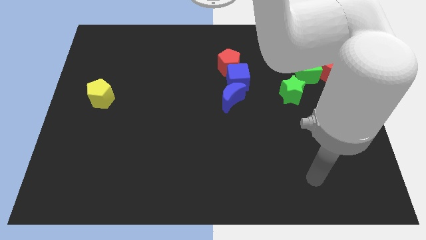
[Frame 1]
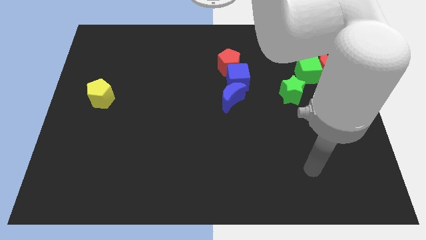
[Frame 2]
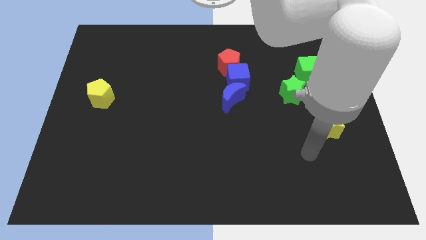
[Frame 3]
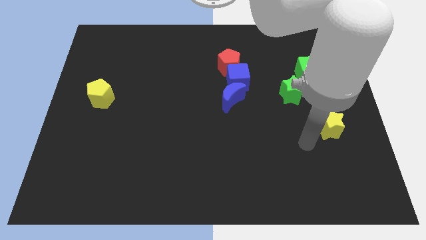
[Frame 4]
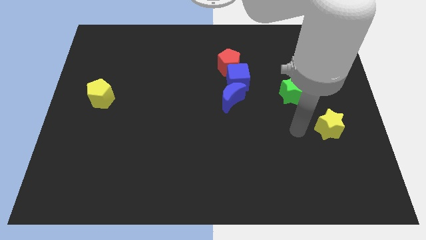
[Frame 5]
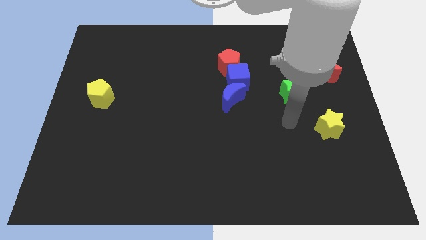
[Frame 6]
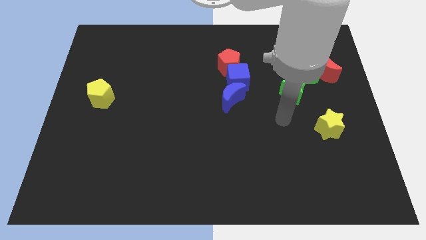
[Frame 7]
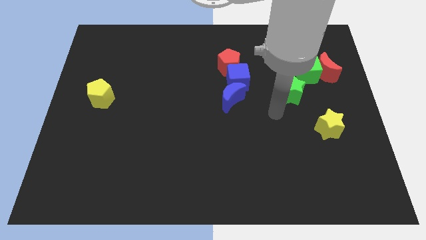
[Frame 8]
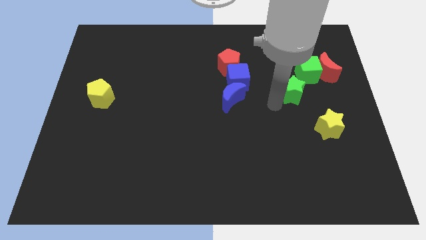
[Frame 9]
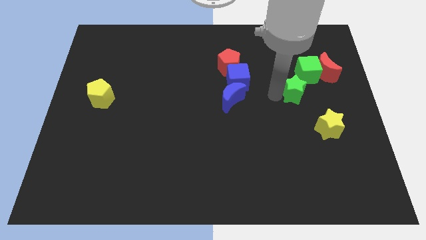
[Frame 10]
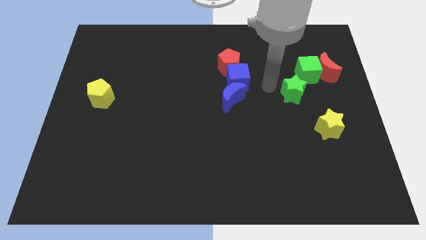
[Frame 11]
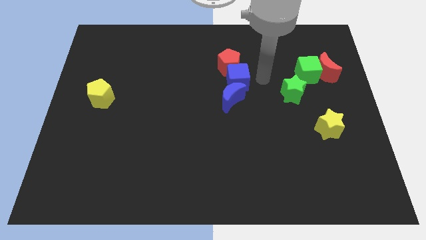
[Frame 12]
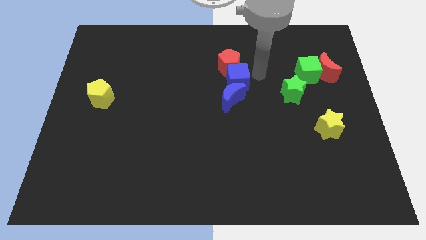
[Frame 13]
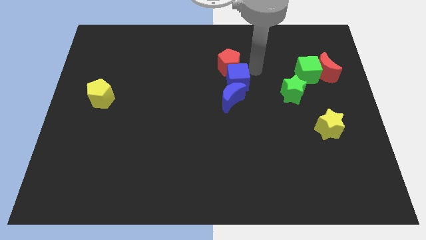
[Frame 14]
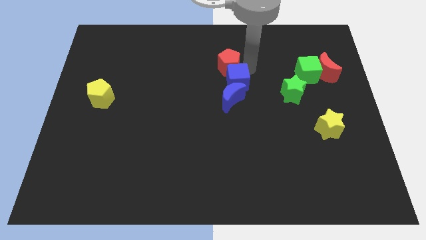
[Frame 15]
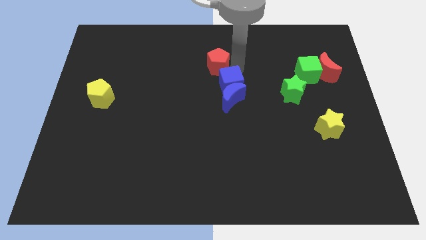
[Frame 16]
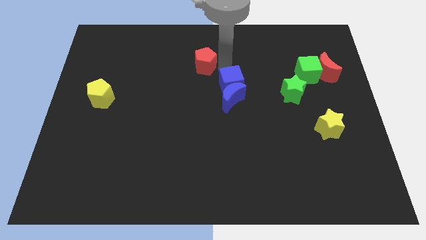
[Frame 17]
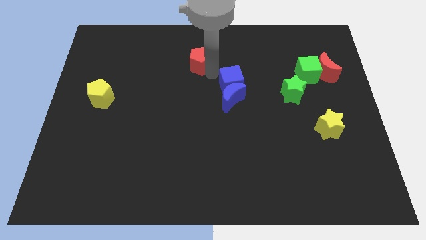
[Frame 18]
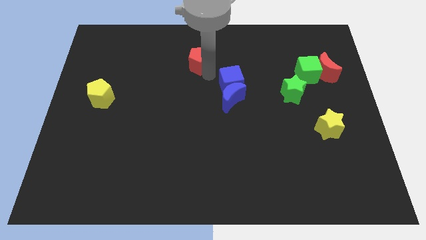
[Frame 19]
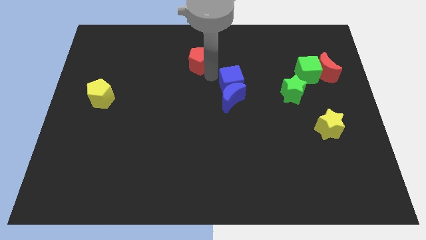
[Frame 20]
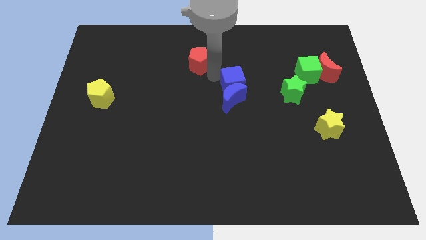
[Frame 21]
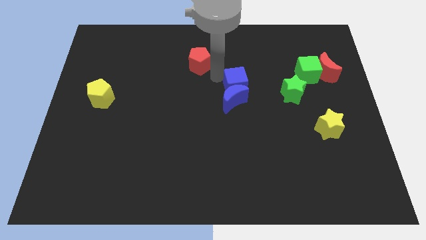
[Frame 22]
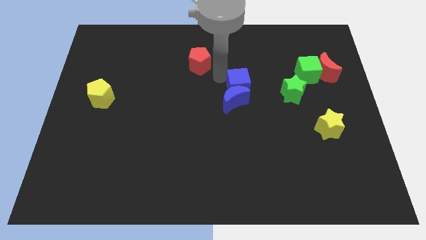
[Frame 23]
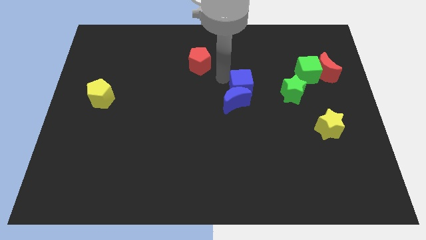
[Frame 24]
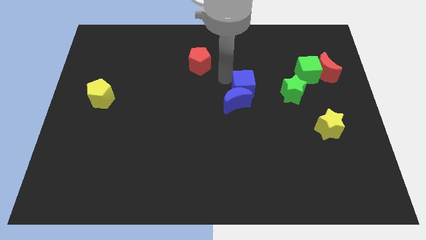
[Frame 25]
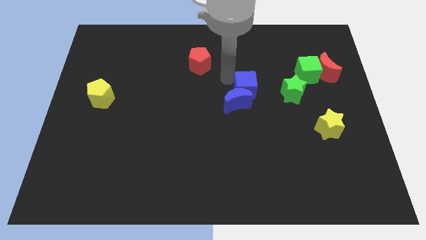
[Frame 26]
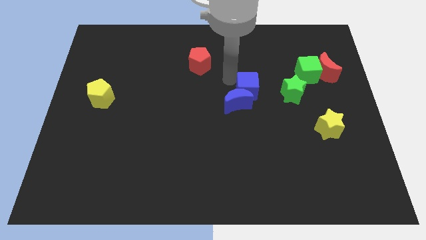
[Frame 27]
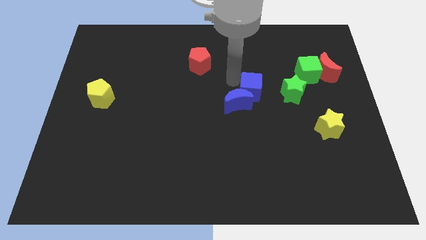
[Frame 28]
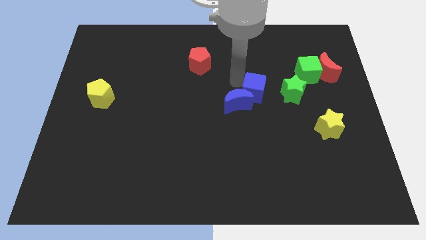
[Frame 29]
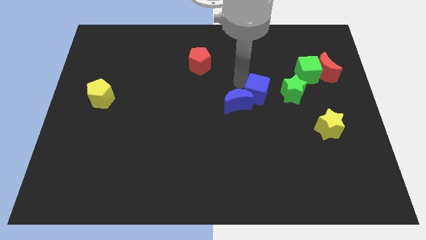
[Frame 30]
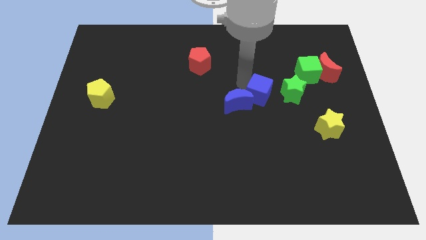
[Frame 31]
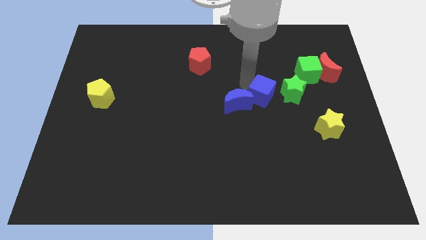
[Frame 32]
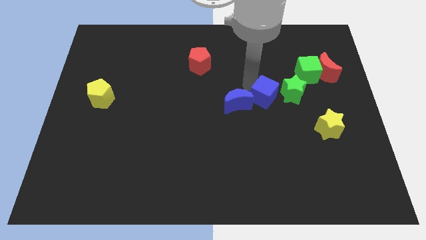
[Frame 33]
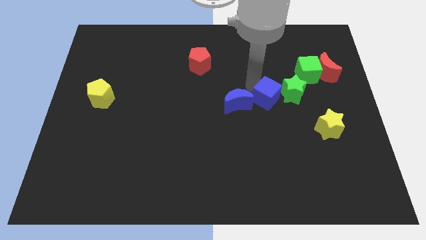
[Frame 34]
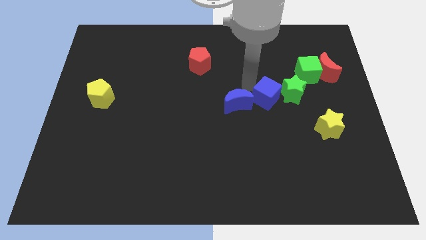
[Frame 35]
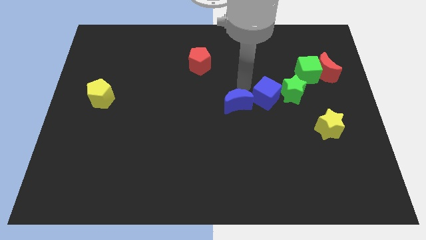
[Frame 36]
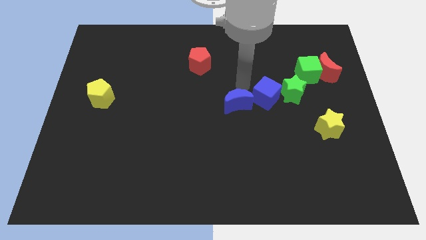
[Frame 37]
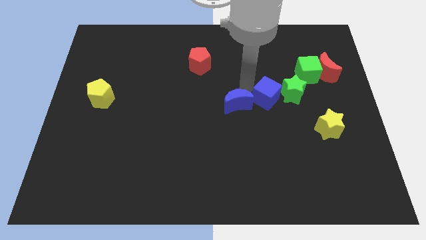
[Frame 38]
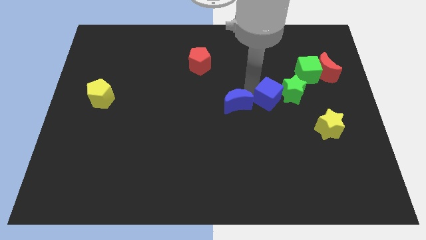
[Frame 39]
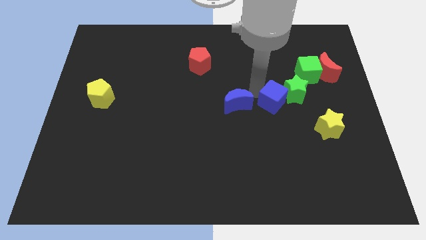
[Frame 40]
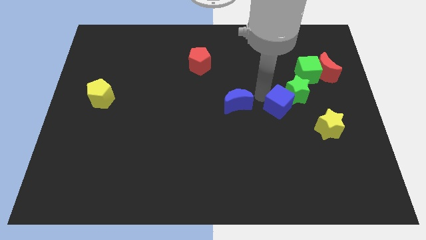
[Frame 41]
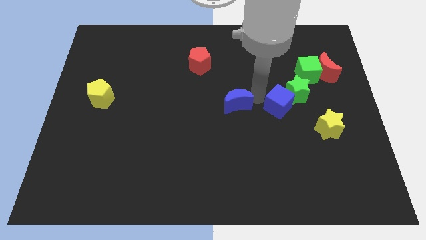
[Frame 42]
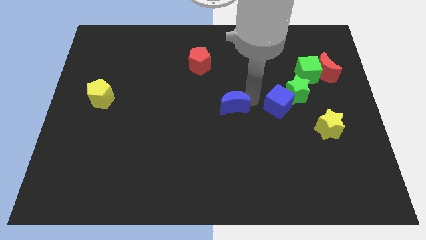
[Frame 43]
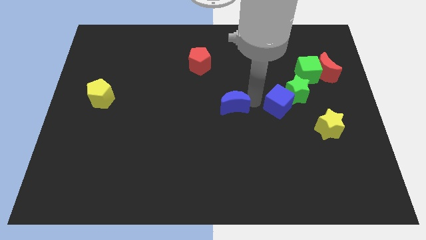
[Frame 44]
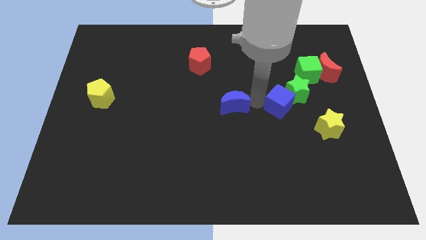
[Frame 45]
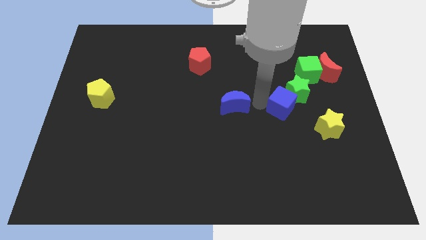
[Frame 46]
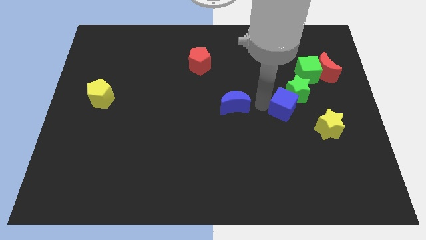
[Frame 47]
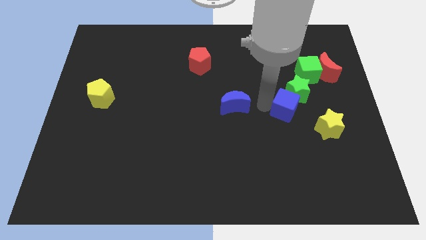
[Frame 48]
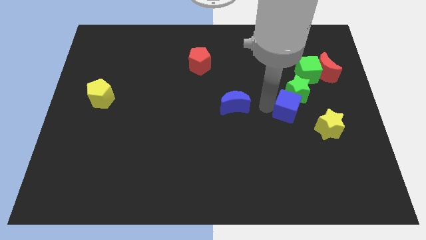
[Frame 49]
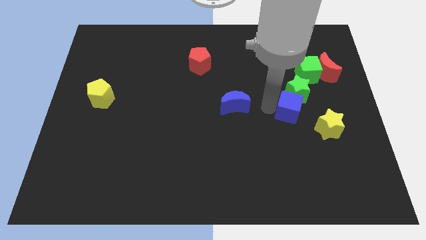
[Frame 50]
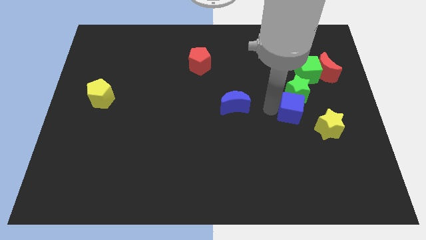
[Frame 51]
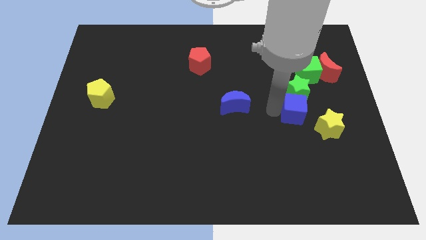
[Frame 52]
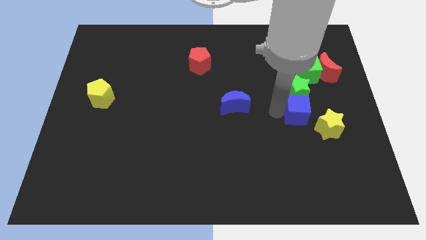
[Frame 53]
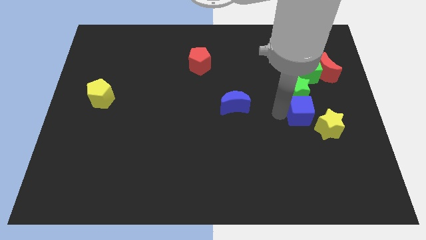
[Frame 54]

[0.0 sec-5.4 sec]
put the blue cube to the bottom right of the green star

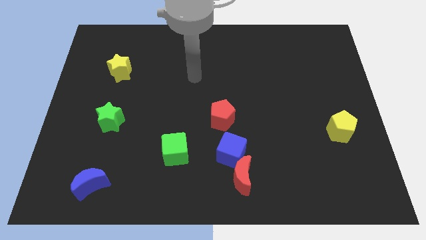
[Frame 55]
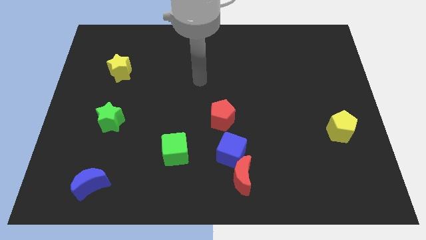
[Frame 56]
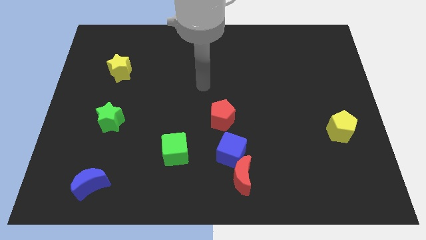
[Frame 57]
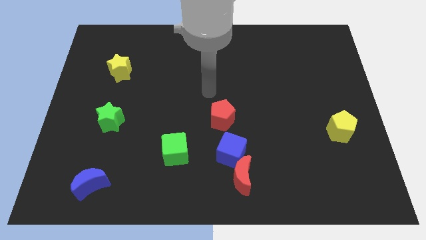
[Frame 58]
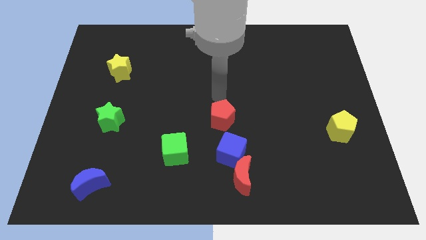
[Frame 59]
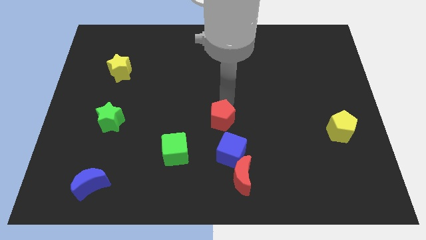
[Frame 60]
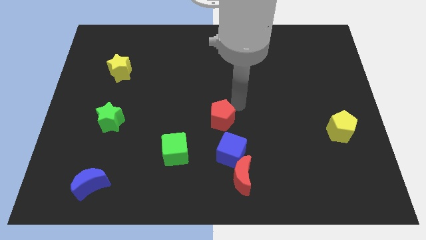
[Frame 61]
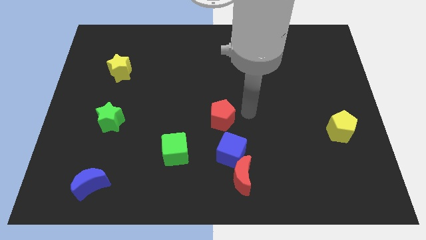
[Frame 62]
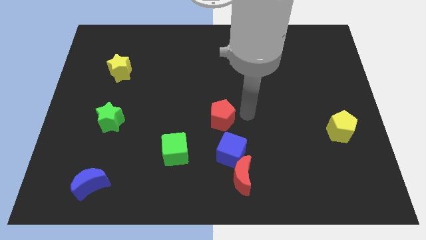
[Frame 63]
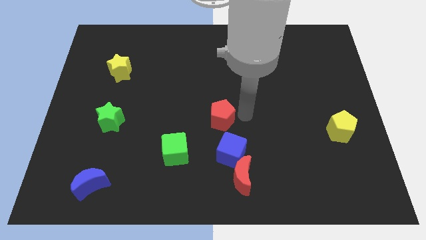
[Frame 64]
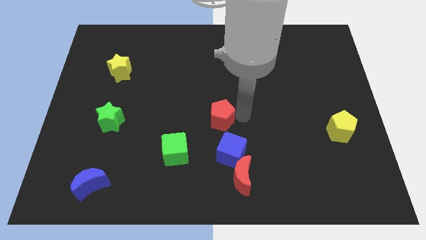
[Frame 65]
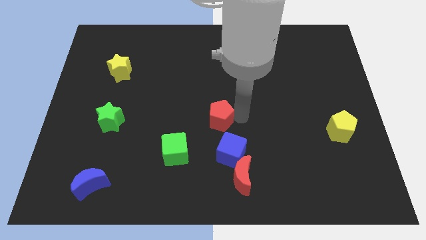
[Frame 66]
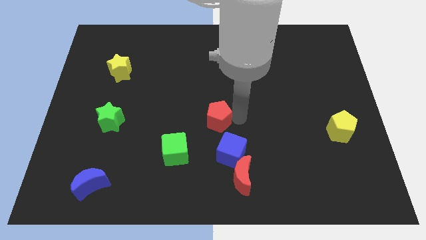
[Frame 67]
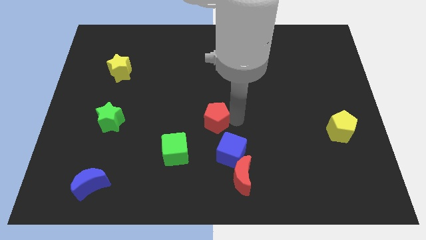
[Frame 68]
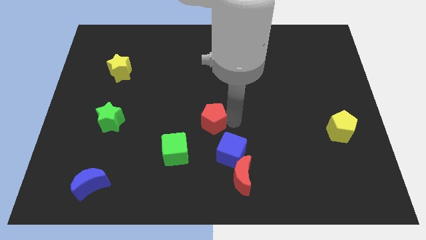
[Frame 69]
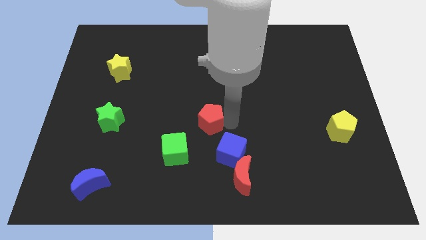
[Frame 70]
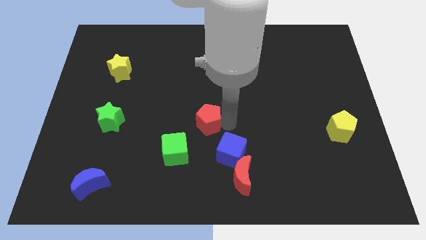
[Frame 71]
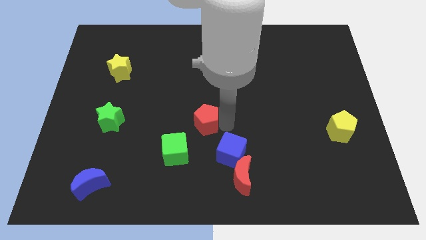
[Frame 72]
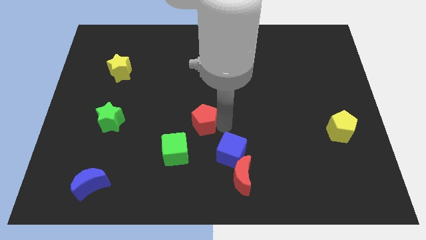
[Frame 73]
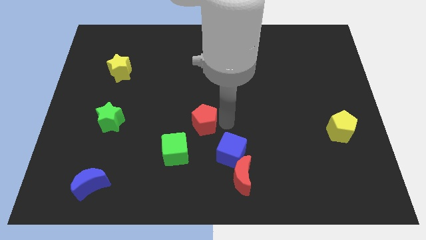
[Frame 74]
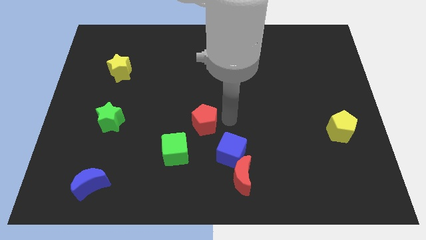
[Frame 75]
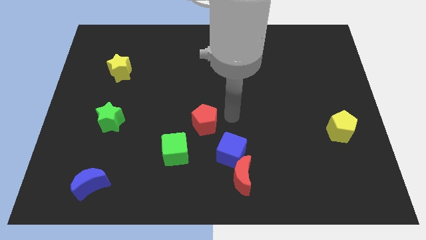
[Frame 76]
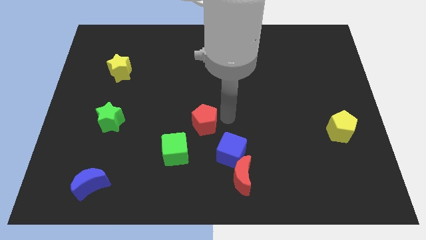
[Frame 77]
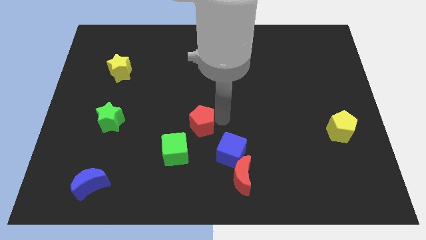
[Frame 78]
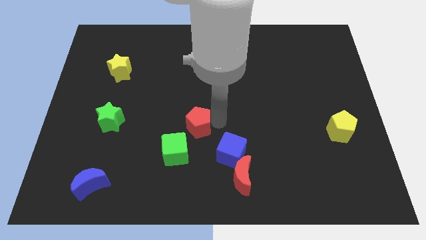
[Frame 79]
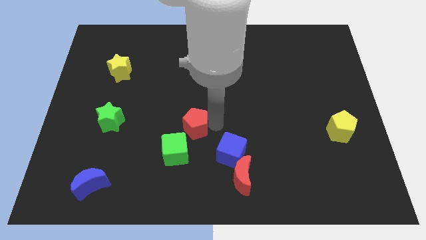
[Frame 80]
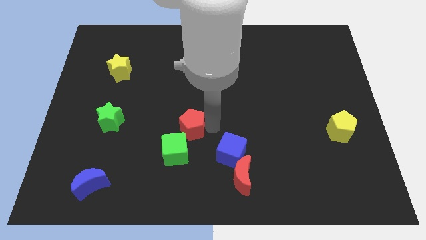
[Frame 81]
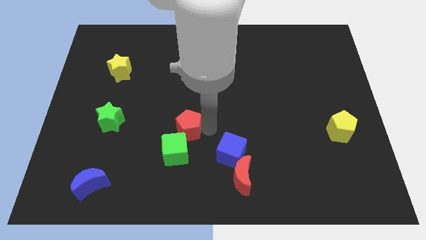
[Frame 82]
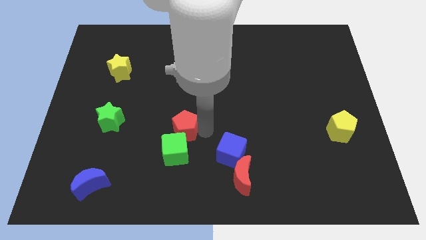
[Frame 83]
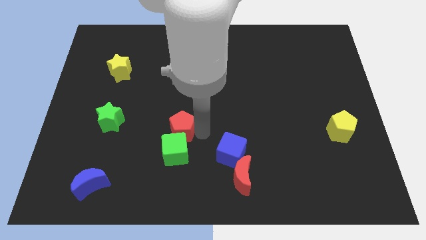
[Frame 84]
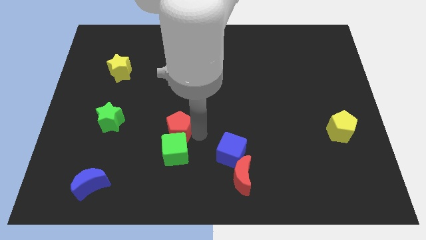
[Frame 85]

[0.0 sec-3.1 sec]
push the red pentagon right of the green star
